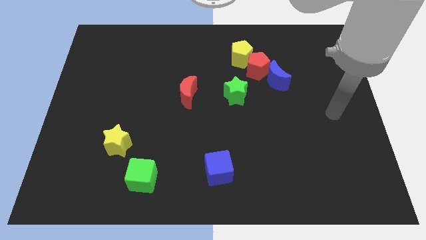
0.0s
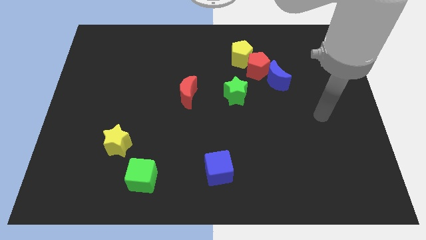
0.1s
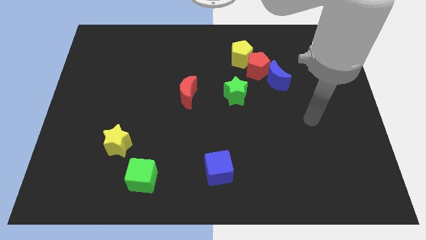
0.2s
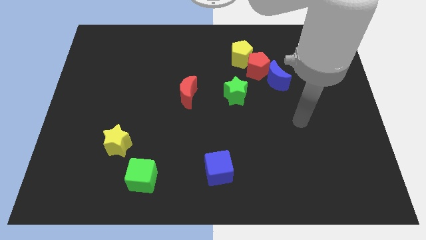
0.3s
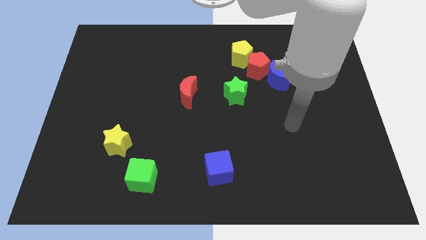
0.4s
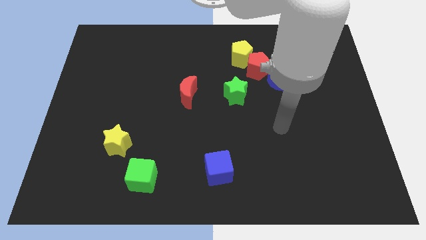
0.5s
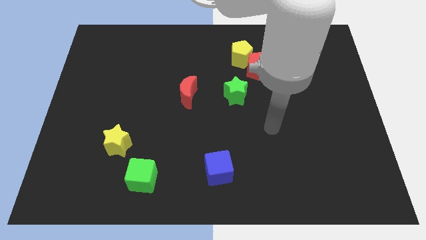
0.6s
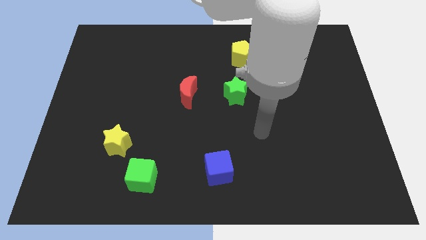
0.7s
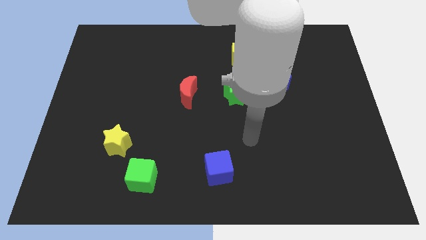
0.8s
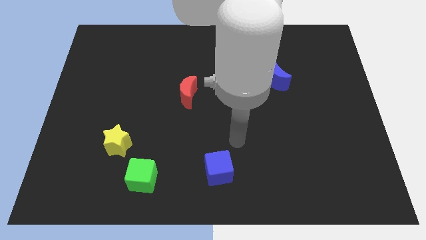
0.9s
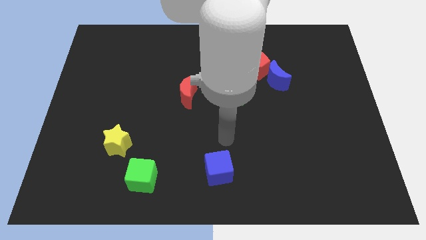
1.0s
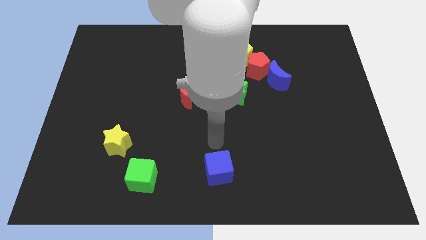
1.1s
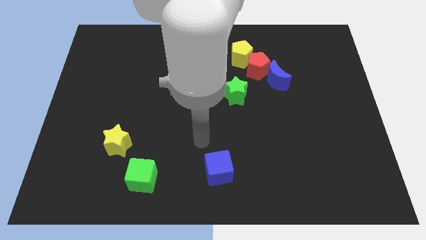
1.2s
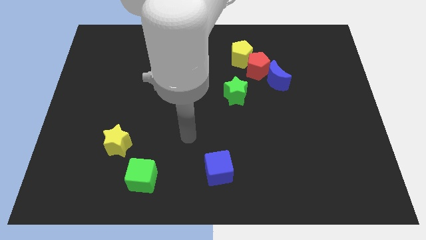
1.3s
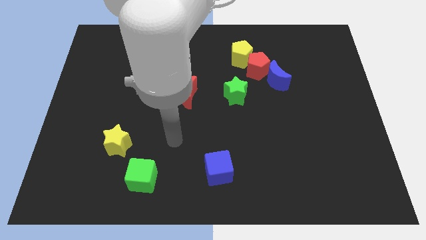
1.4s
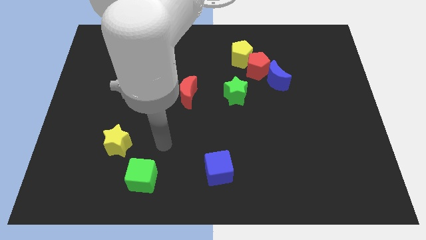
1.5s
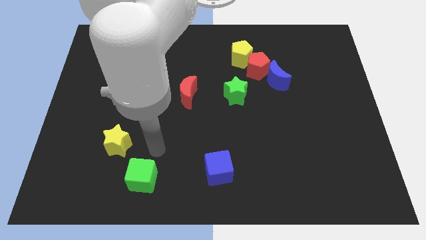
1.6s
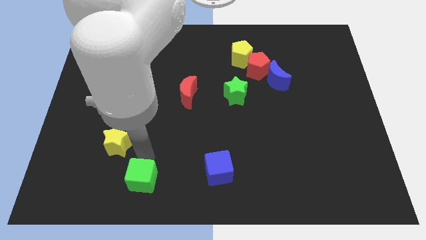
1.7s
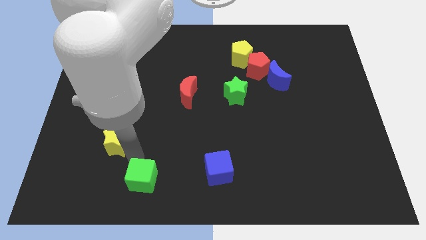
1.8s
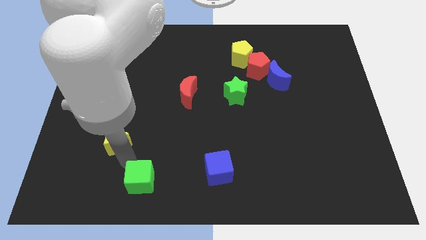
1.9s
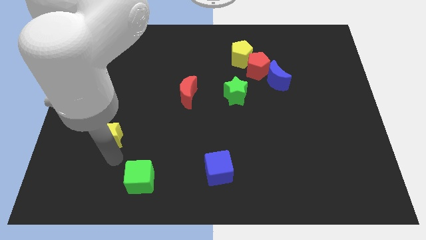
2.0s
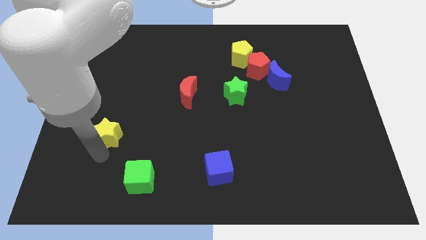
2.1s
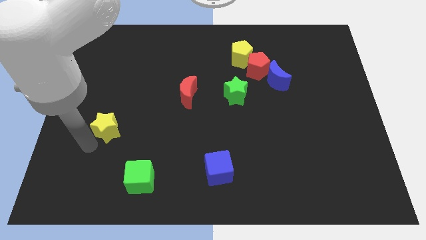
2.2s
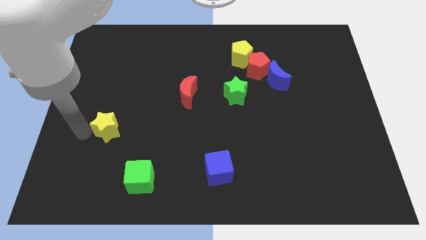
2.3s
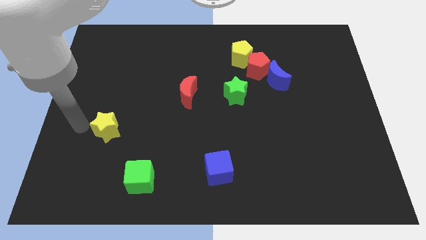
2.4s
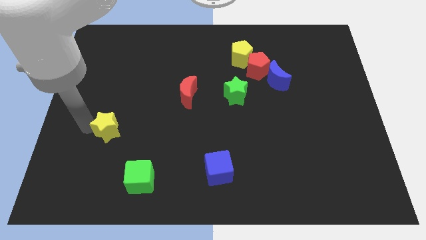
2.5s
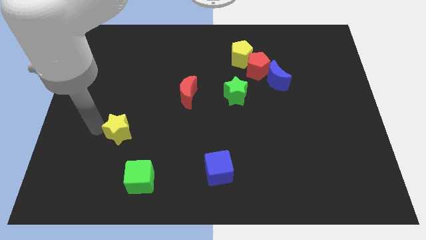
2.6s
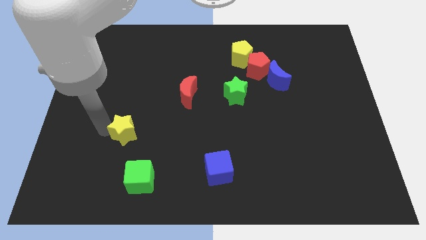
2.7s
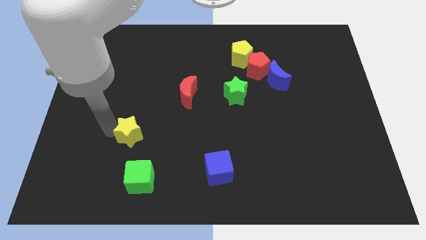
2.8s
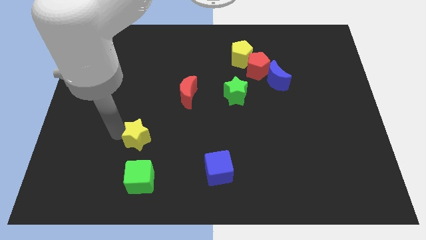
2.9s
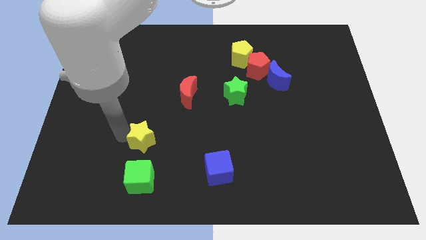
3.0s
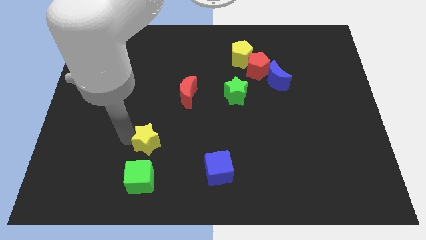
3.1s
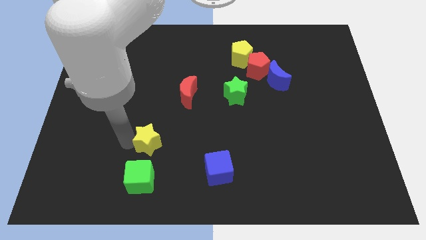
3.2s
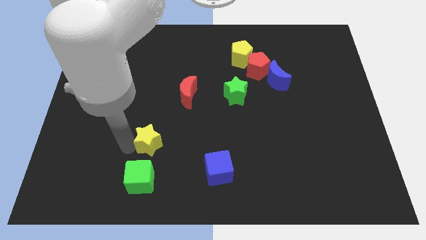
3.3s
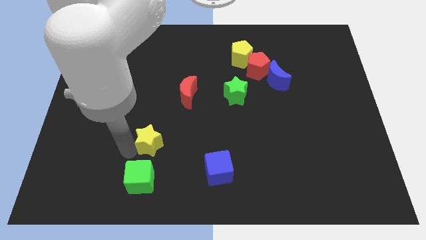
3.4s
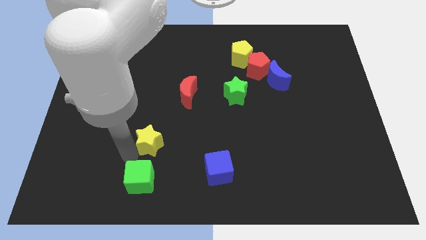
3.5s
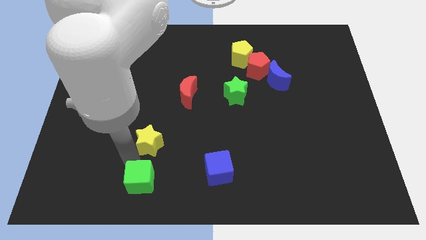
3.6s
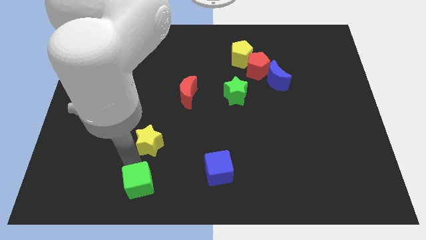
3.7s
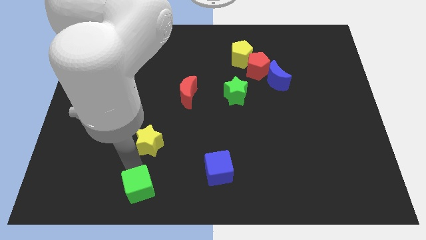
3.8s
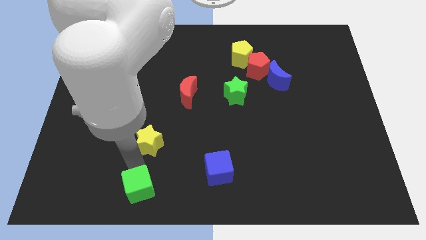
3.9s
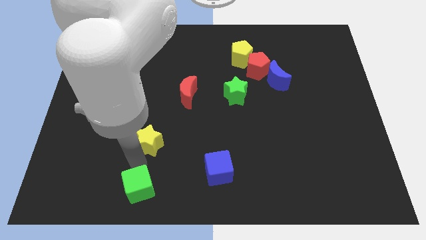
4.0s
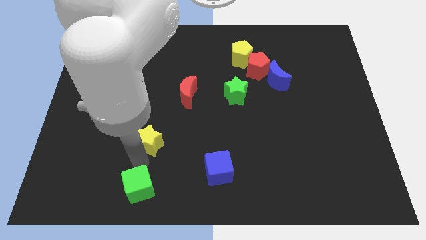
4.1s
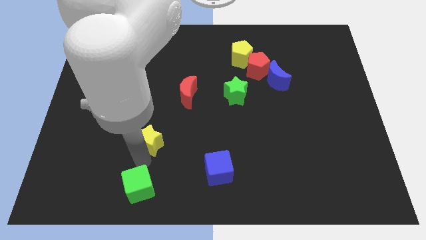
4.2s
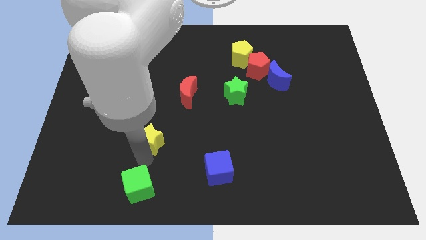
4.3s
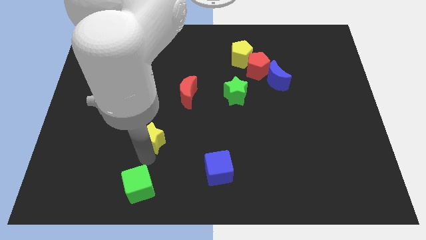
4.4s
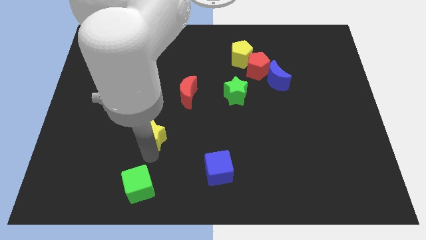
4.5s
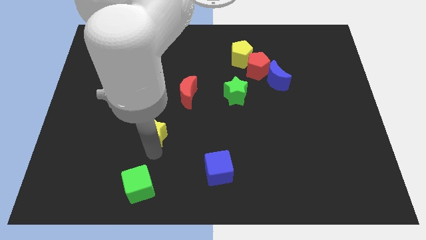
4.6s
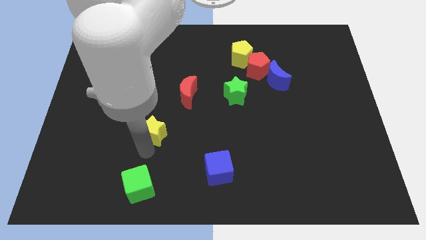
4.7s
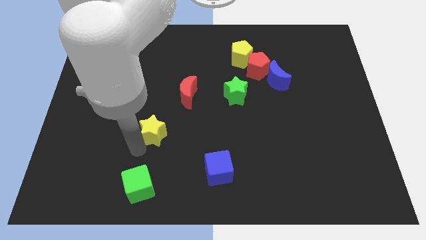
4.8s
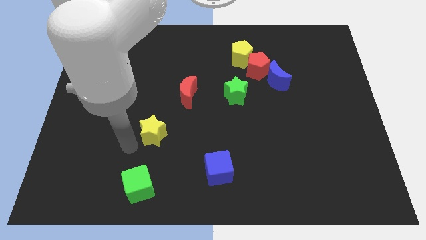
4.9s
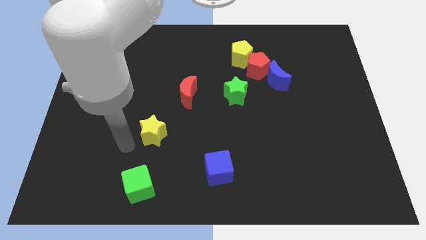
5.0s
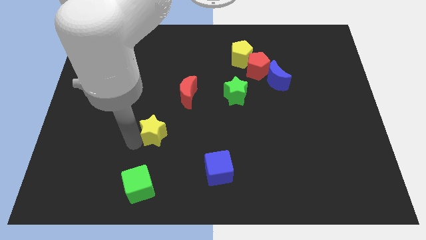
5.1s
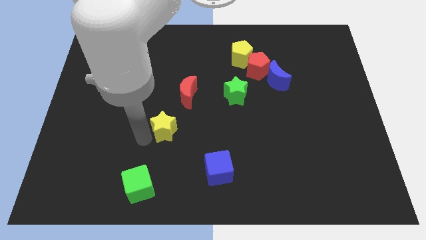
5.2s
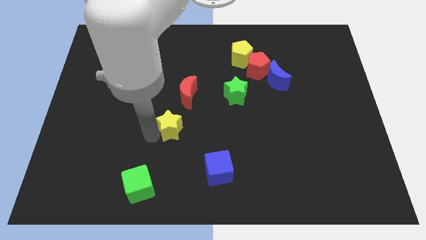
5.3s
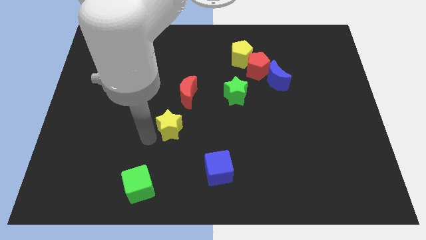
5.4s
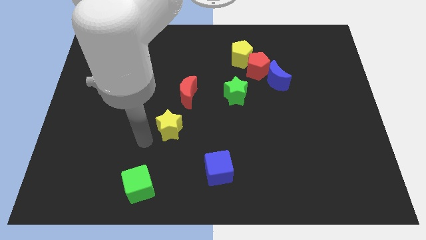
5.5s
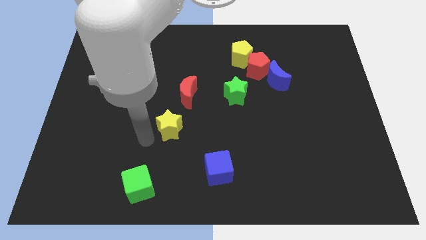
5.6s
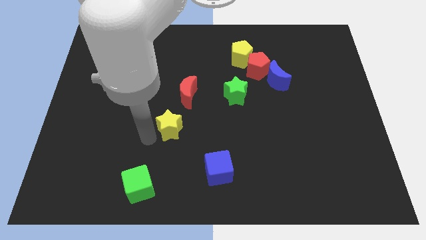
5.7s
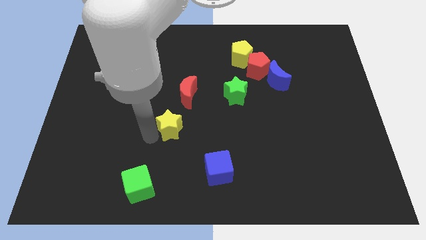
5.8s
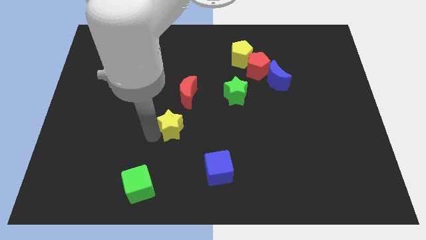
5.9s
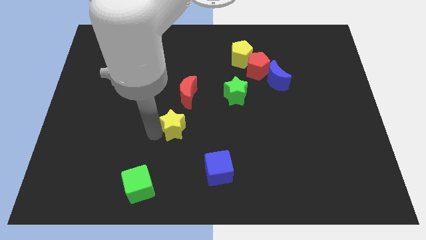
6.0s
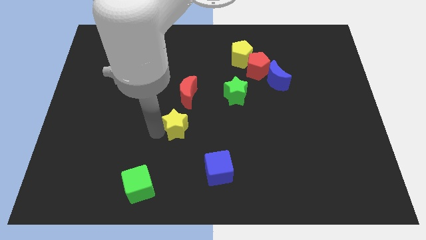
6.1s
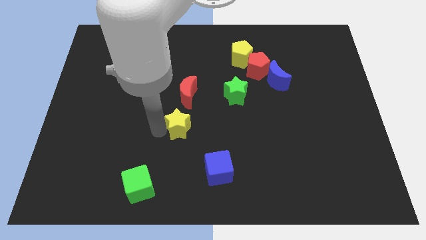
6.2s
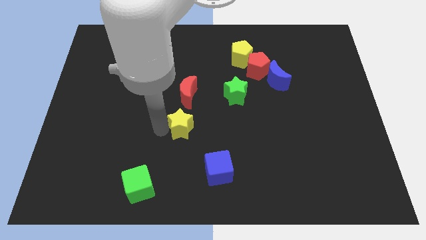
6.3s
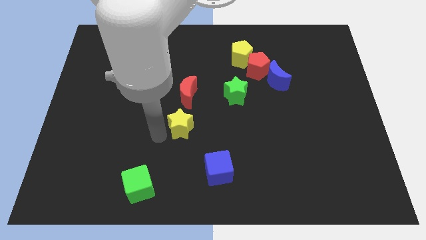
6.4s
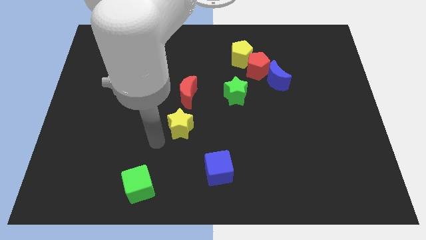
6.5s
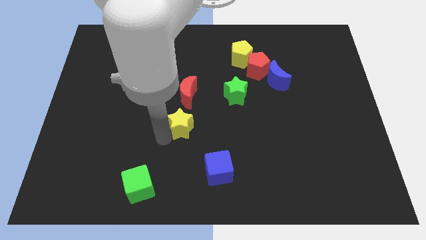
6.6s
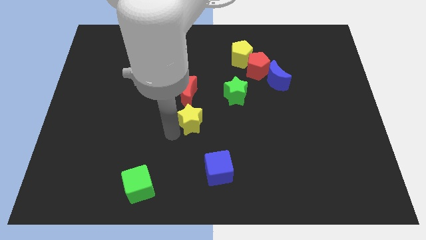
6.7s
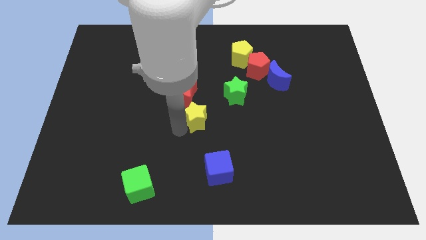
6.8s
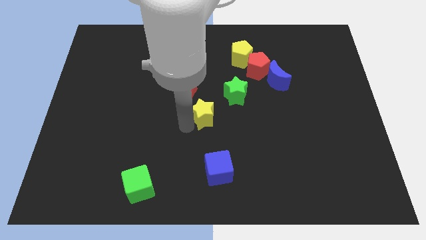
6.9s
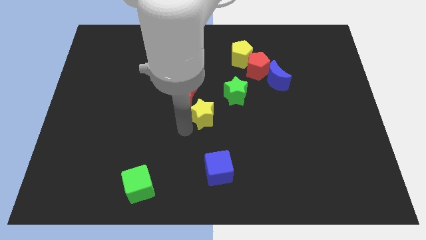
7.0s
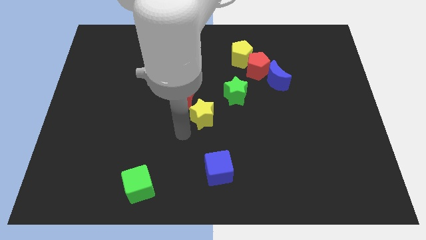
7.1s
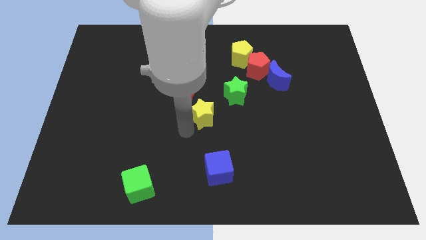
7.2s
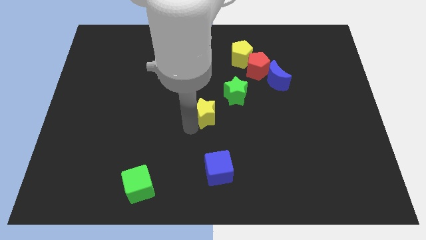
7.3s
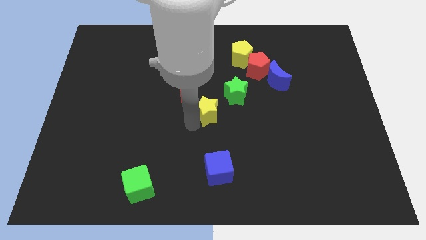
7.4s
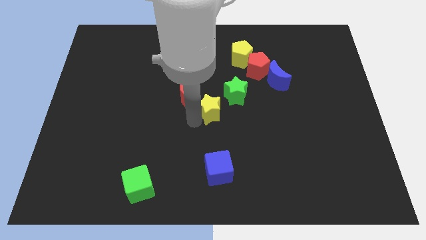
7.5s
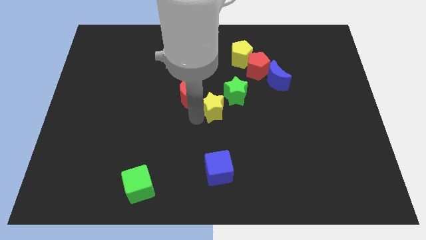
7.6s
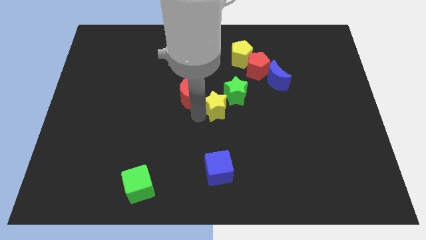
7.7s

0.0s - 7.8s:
put the yellow star next to the green star
